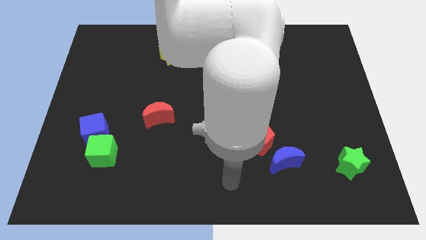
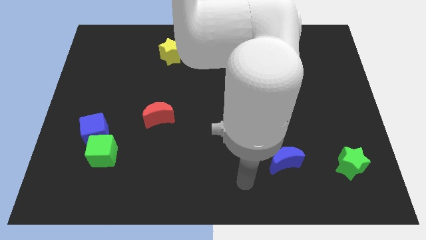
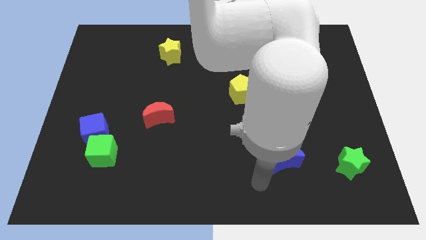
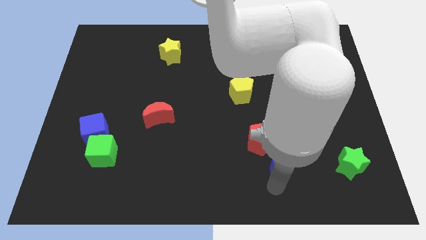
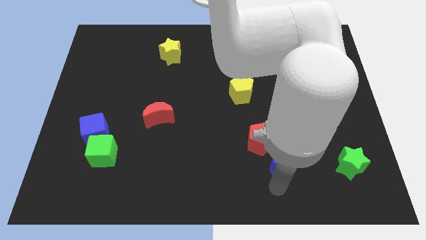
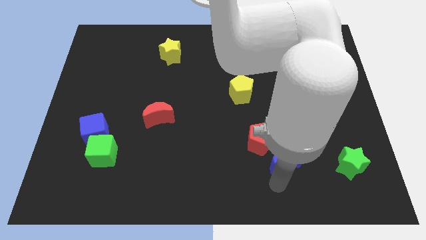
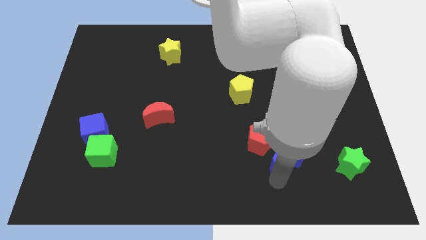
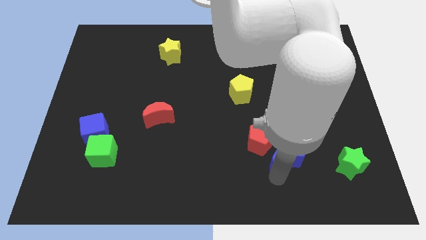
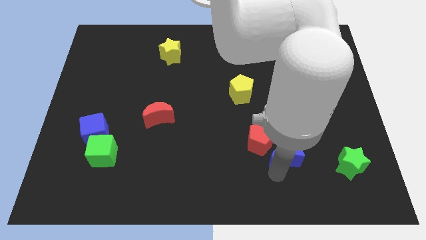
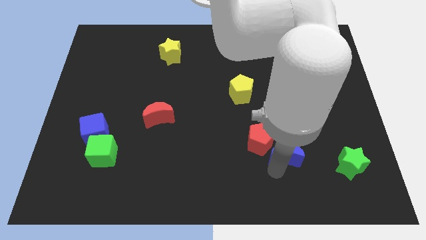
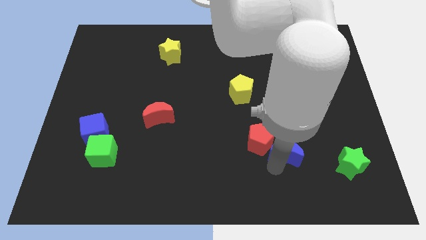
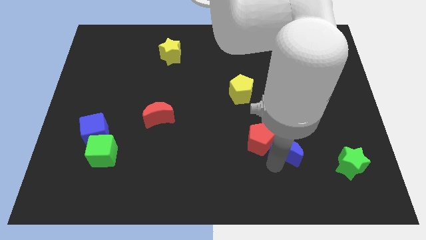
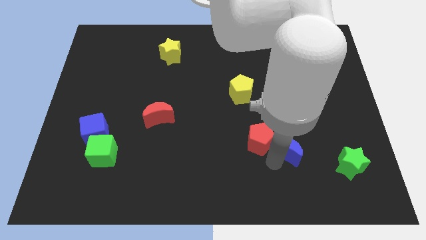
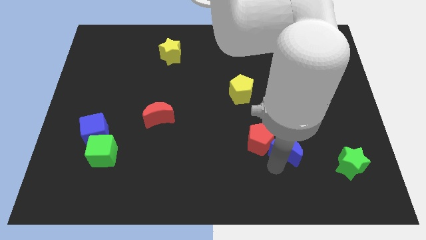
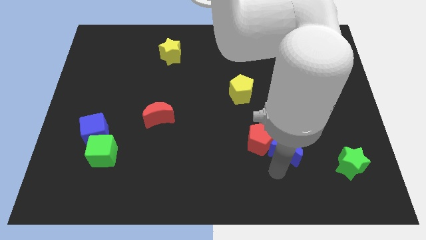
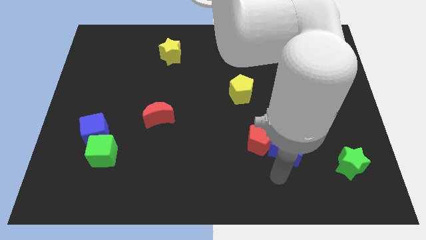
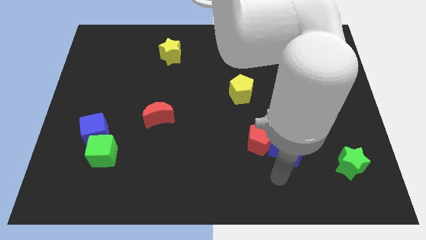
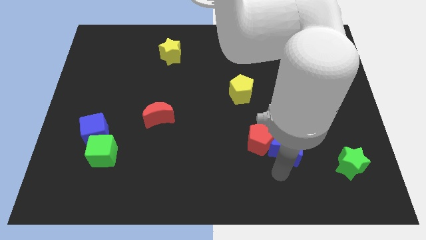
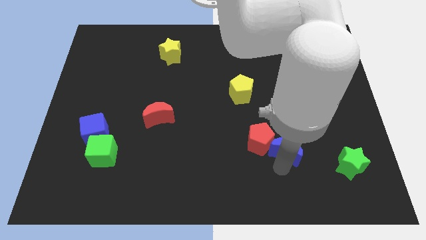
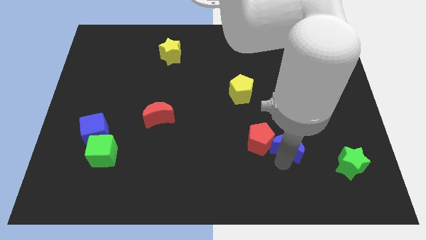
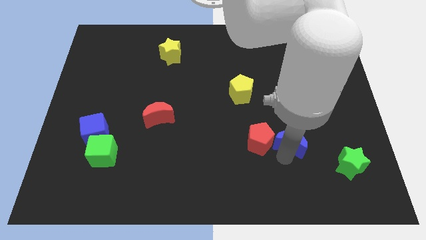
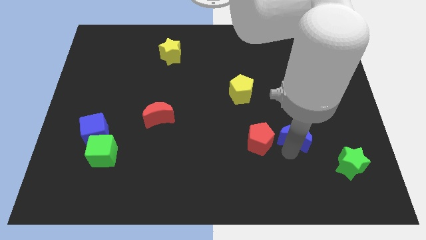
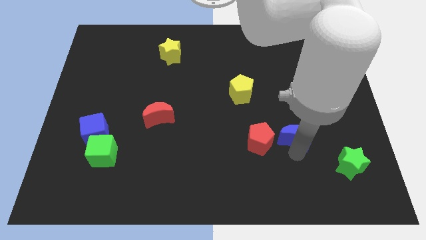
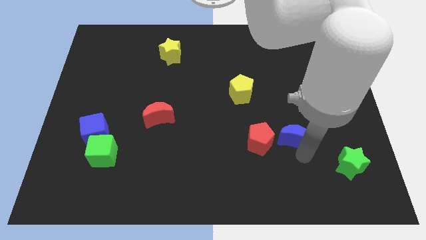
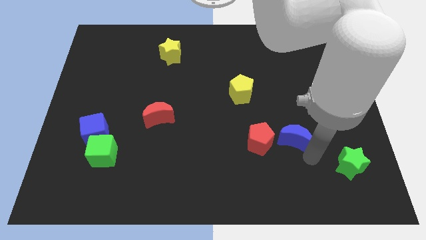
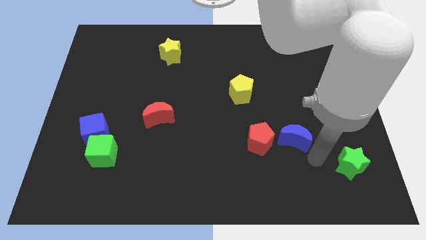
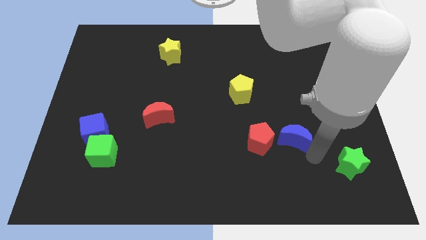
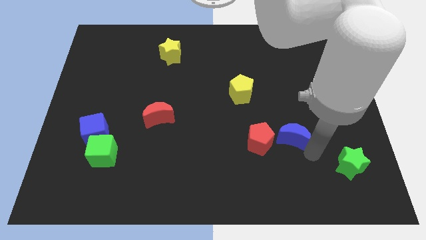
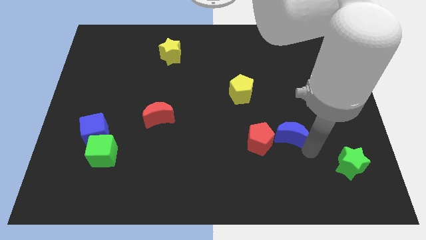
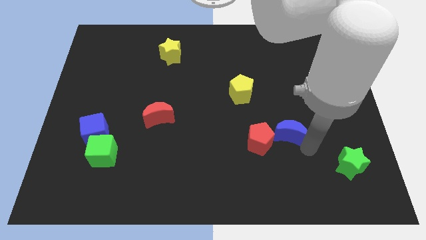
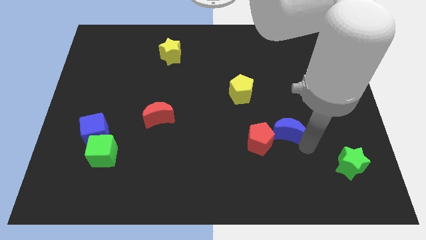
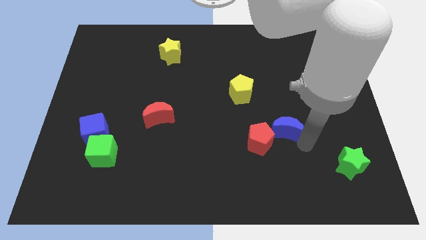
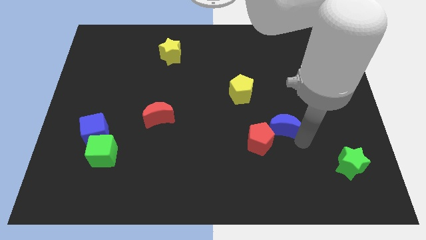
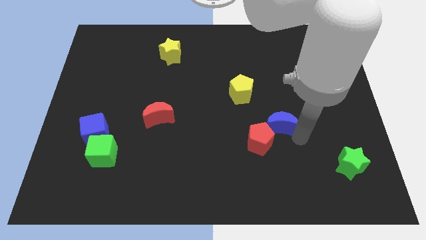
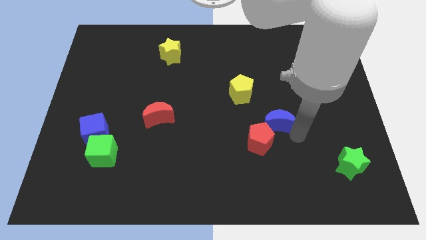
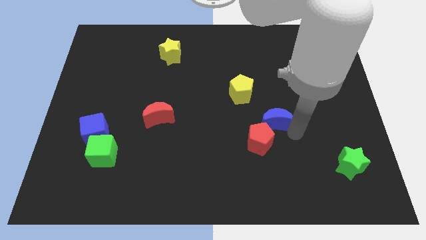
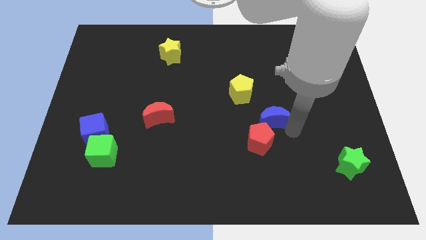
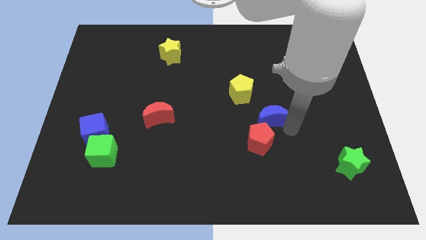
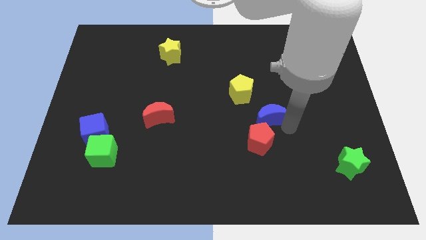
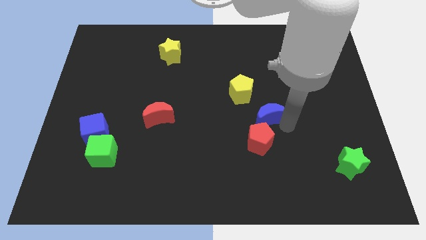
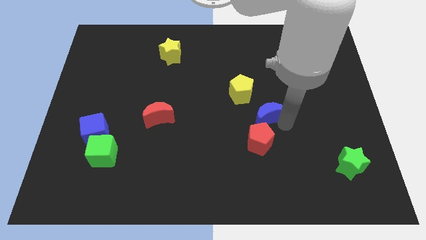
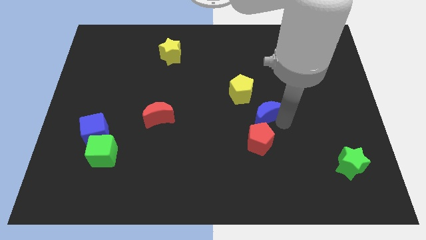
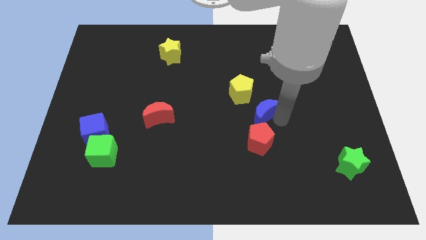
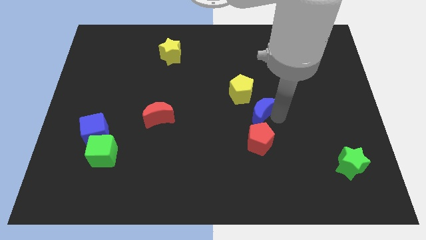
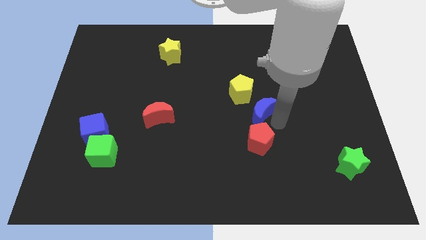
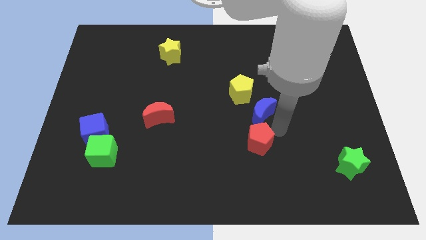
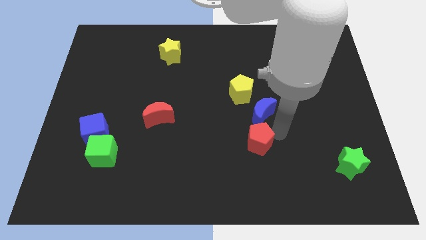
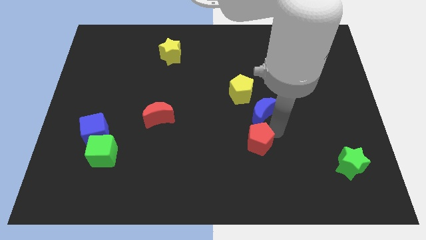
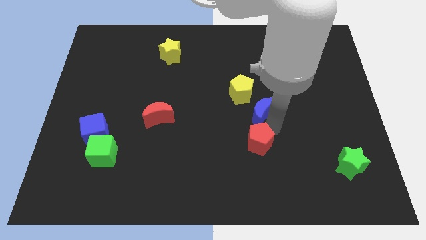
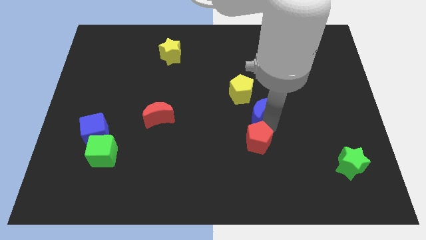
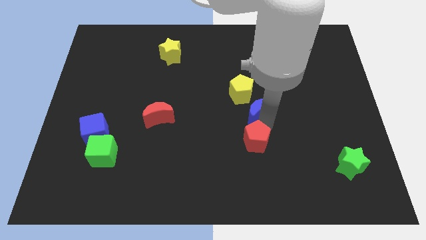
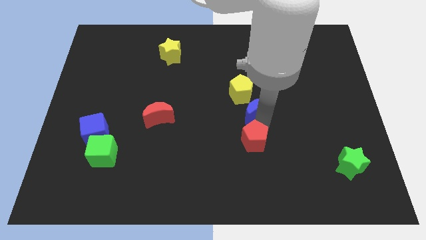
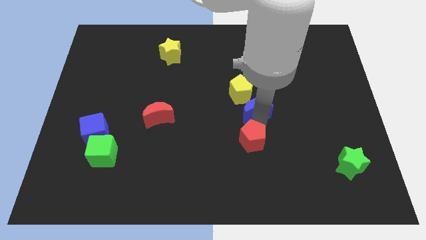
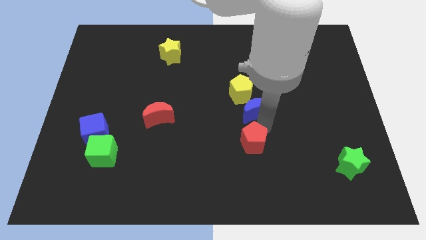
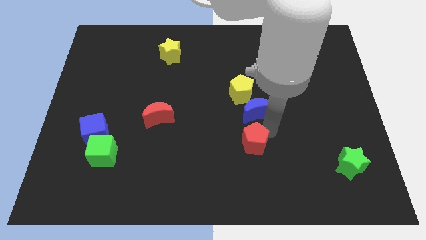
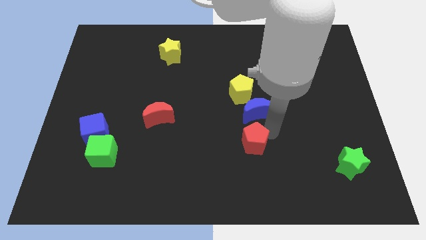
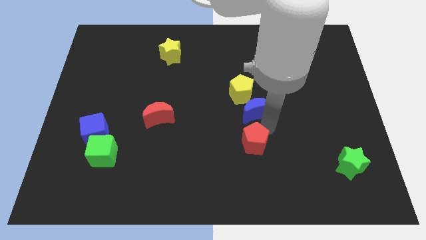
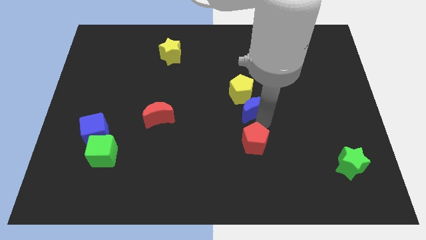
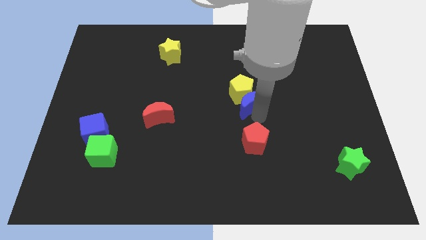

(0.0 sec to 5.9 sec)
push the blue moon next to the yellow pentagon

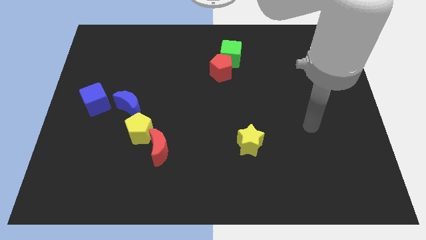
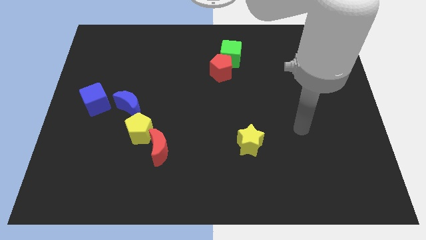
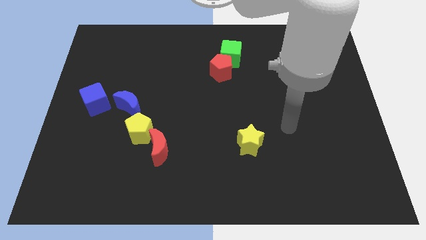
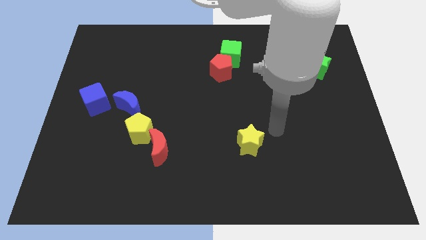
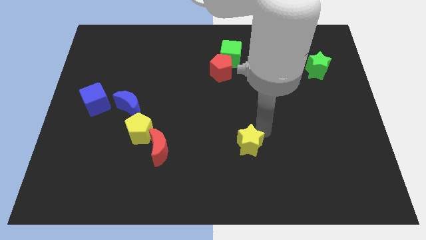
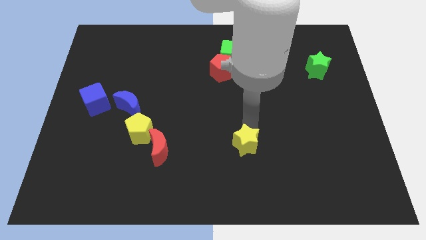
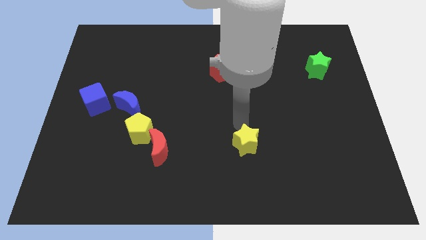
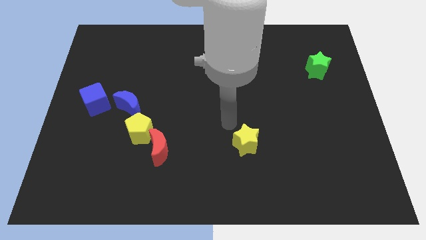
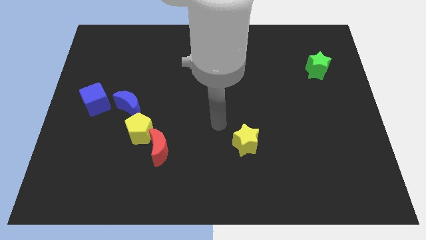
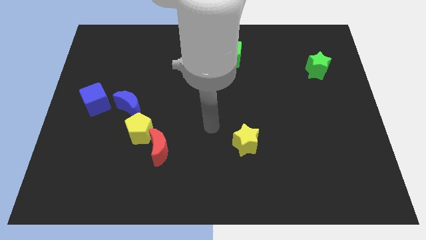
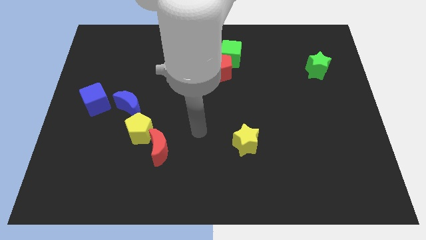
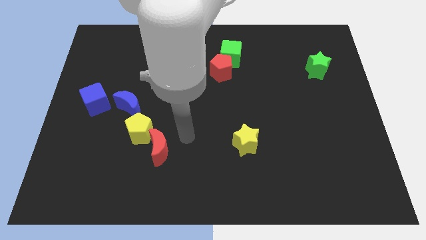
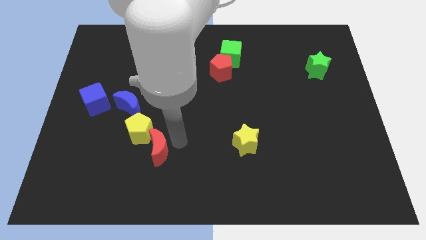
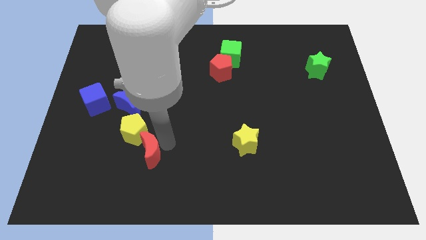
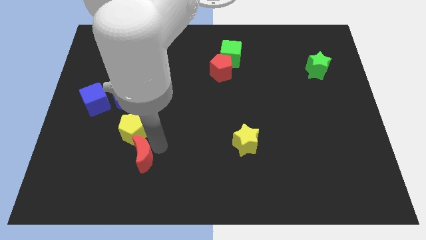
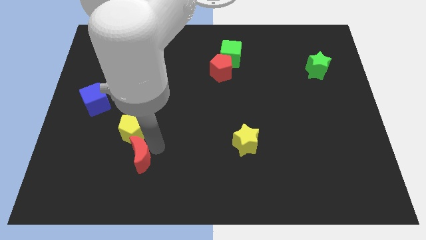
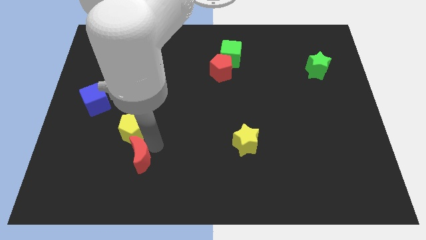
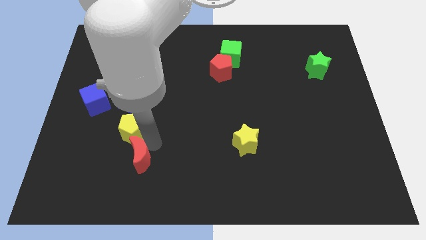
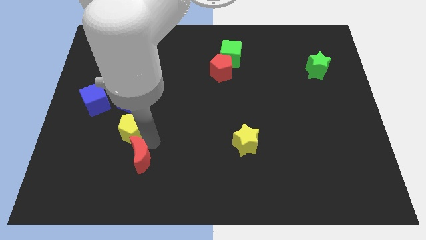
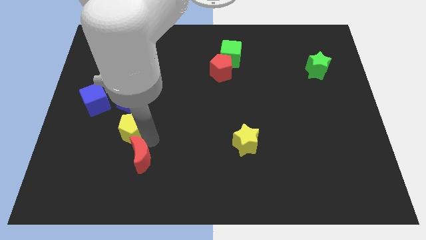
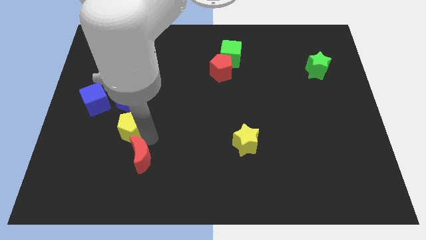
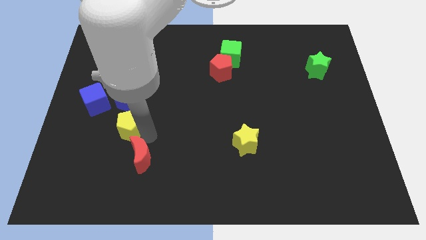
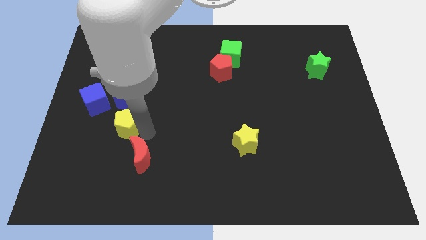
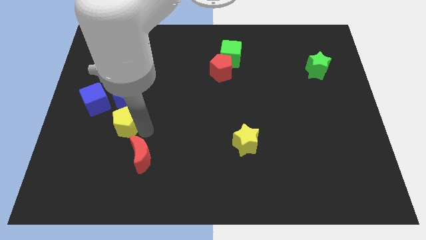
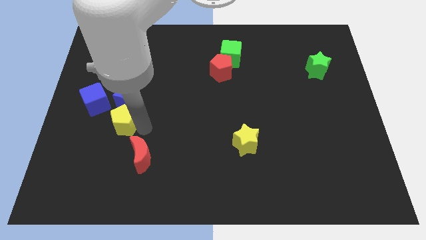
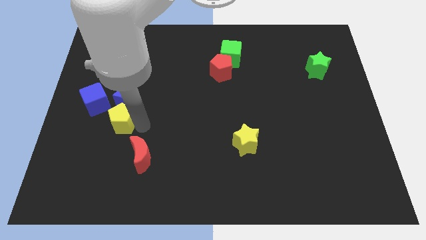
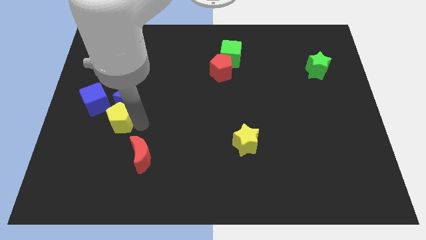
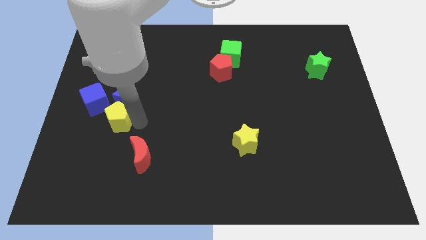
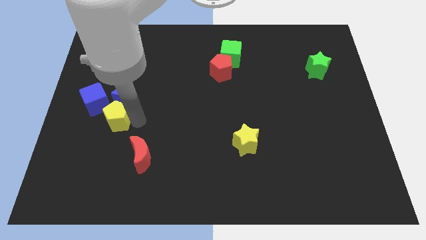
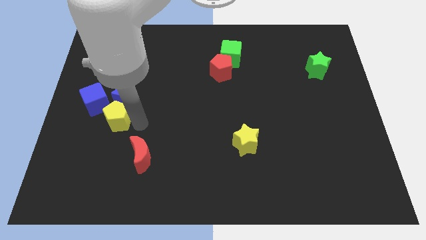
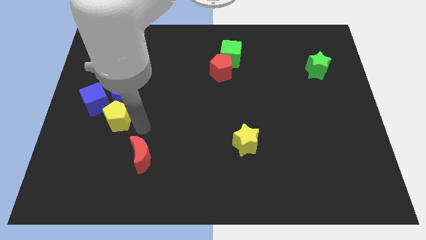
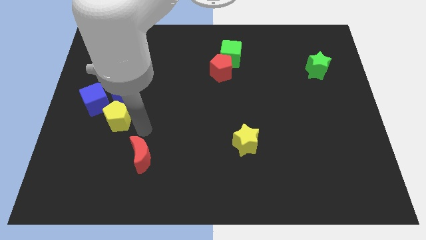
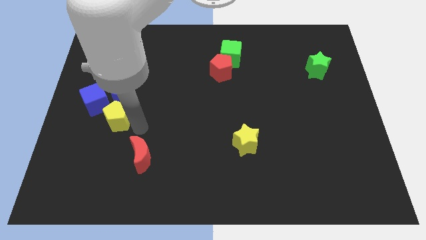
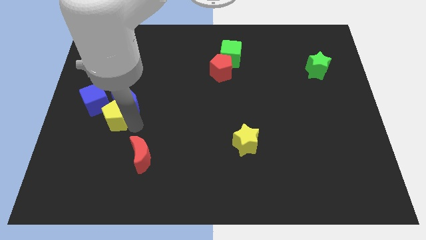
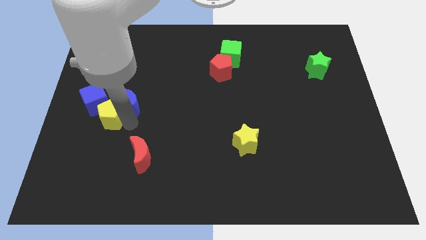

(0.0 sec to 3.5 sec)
put the yellow pentagon to the blue cube
